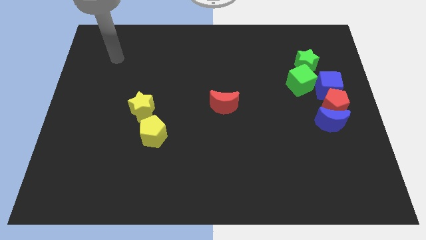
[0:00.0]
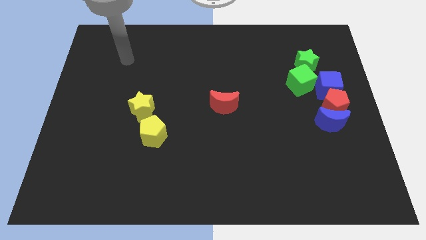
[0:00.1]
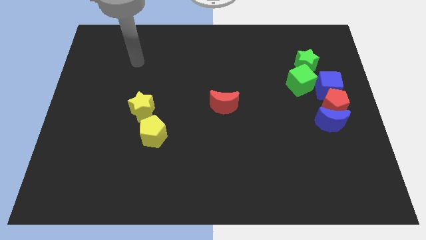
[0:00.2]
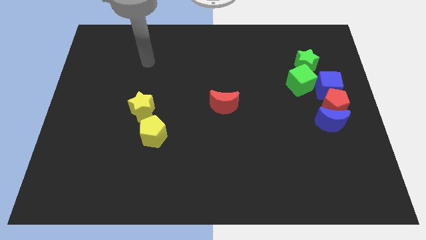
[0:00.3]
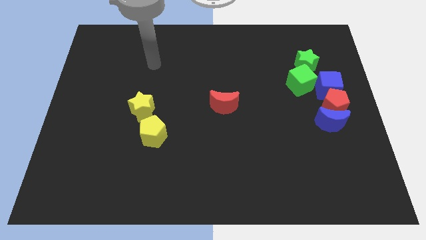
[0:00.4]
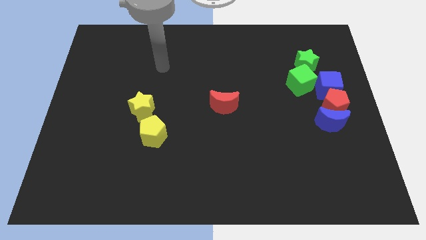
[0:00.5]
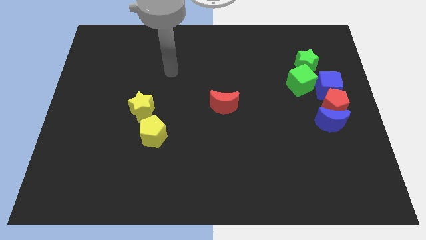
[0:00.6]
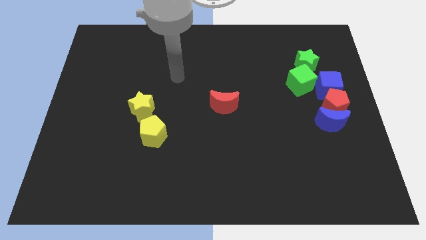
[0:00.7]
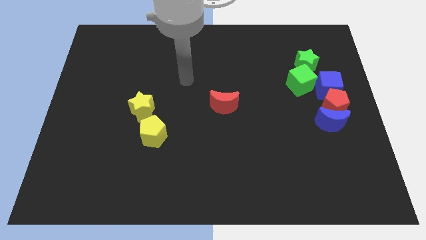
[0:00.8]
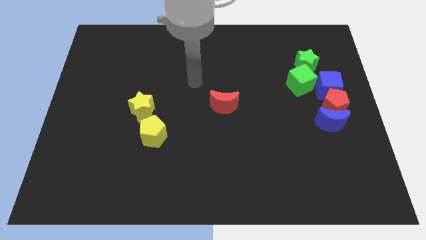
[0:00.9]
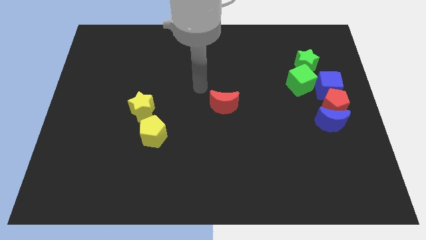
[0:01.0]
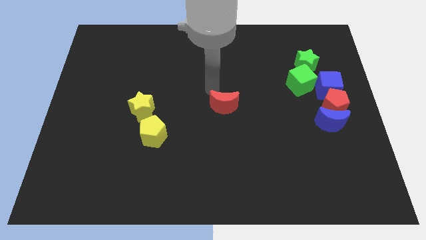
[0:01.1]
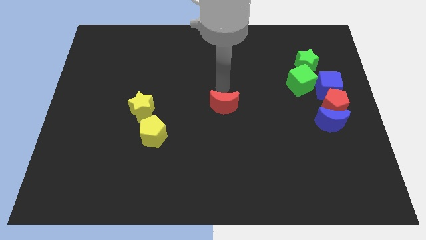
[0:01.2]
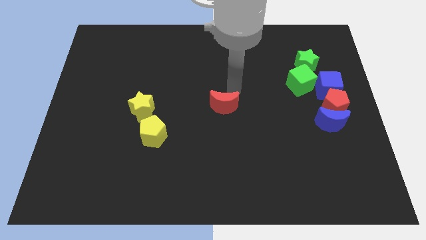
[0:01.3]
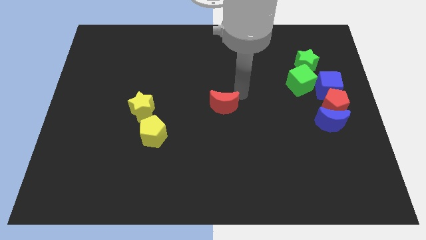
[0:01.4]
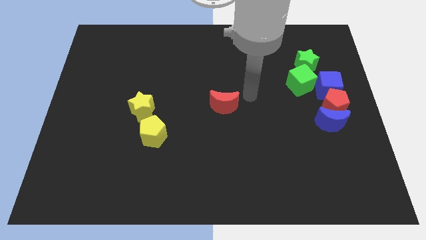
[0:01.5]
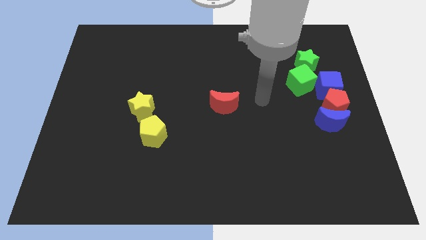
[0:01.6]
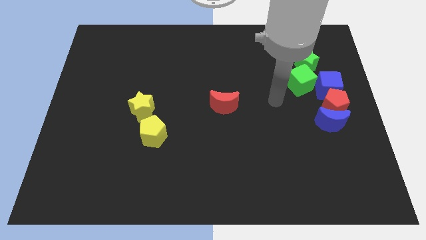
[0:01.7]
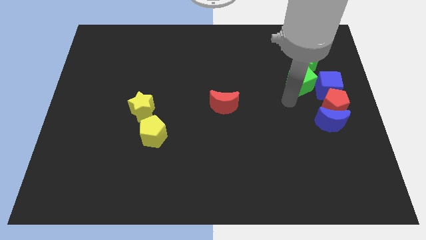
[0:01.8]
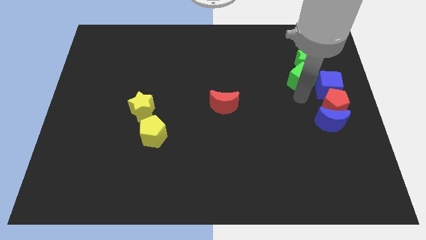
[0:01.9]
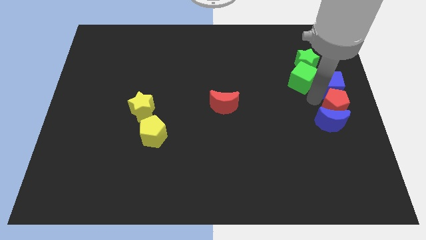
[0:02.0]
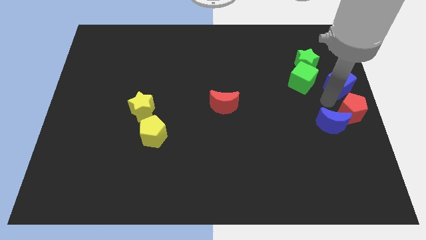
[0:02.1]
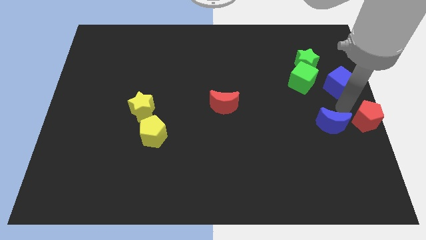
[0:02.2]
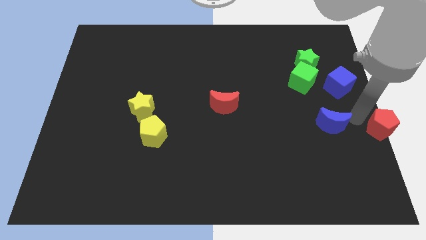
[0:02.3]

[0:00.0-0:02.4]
pull the blue moon apart from the red pentagon

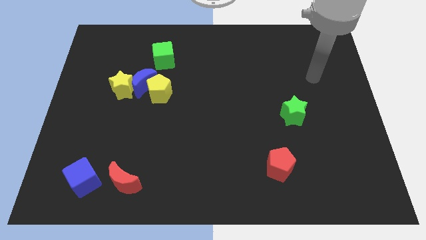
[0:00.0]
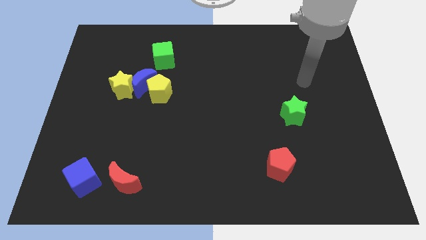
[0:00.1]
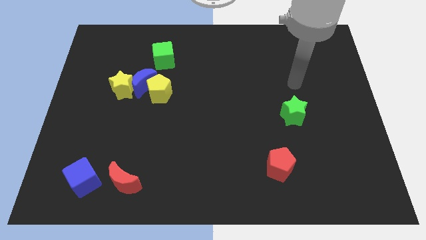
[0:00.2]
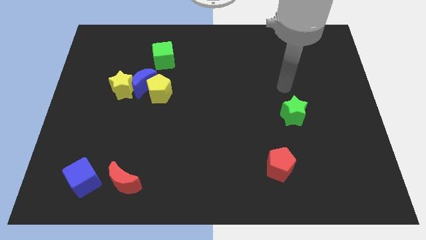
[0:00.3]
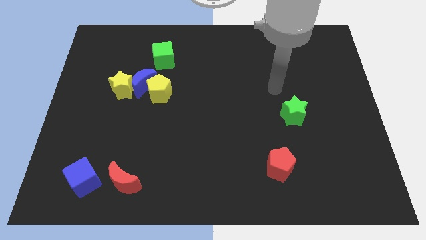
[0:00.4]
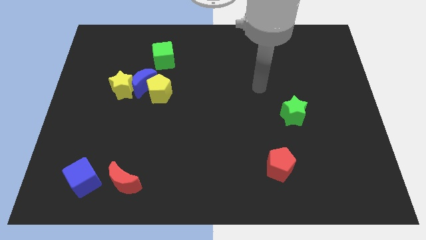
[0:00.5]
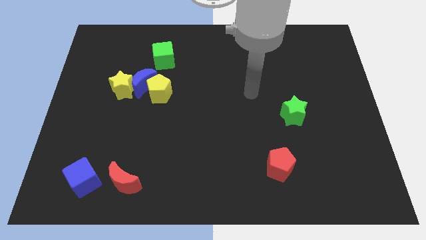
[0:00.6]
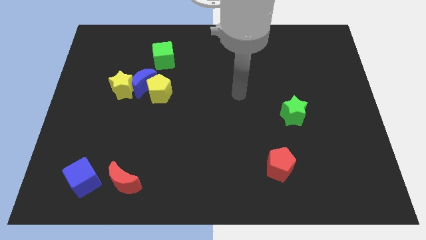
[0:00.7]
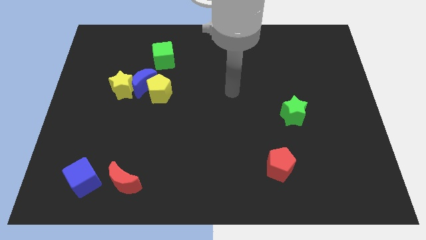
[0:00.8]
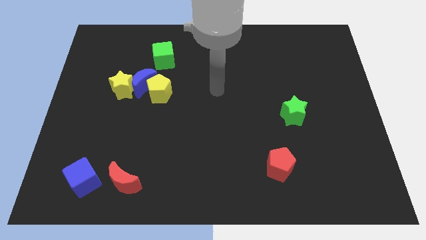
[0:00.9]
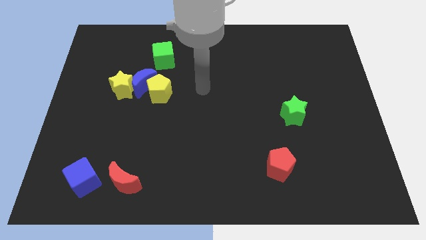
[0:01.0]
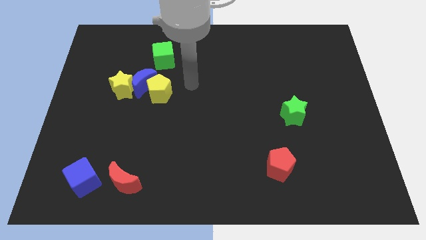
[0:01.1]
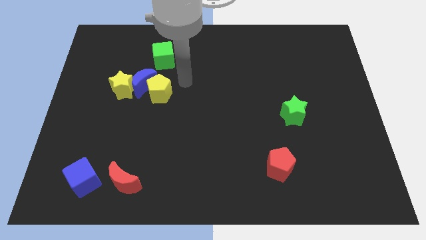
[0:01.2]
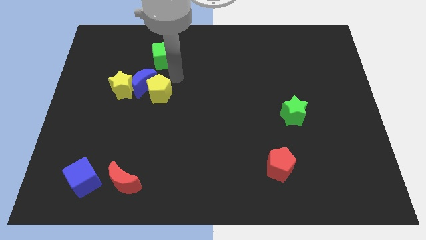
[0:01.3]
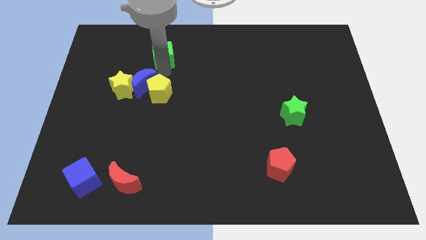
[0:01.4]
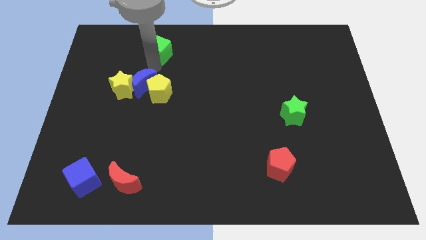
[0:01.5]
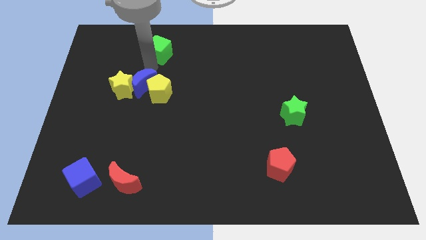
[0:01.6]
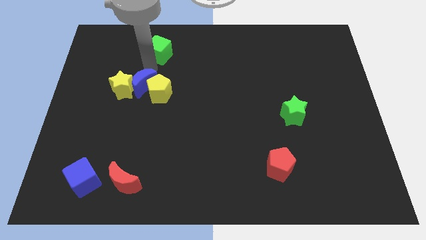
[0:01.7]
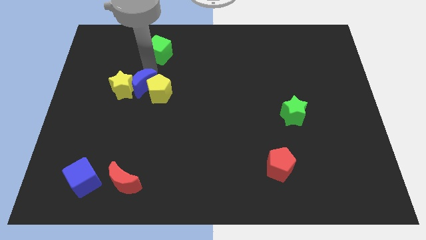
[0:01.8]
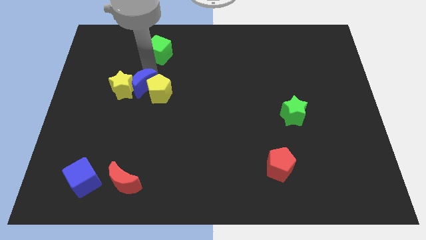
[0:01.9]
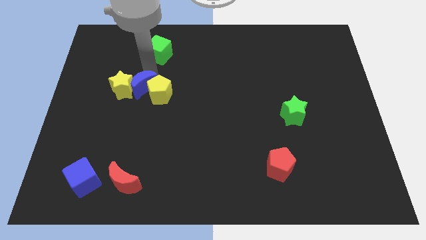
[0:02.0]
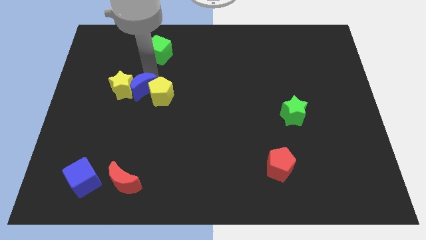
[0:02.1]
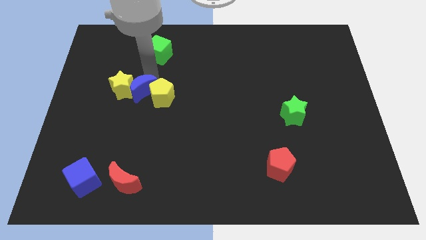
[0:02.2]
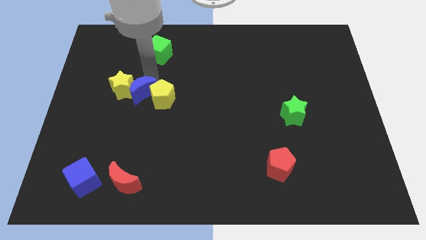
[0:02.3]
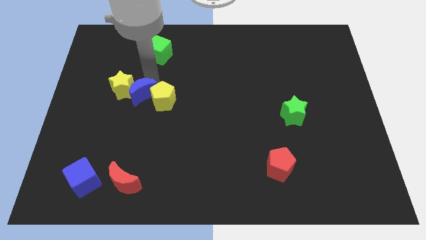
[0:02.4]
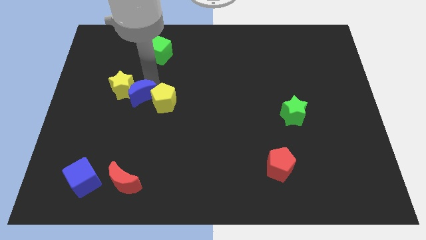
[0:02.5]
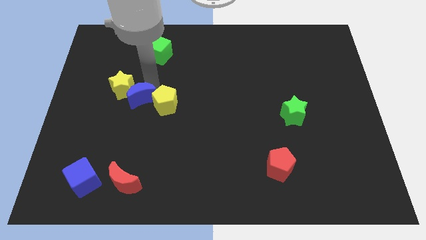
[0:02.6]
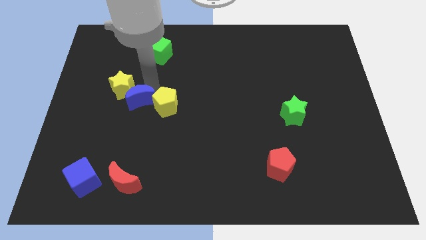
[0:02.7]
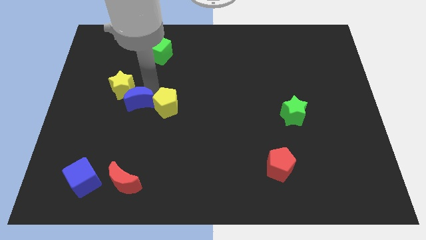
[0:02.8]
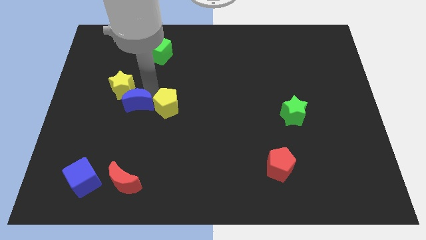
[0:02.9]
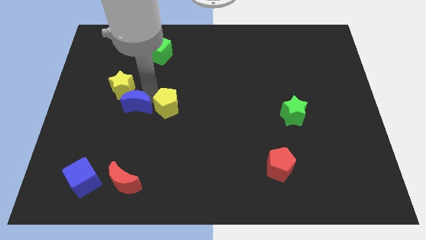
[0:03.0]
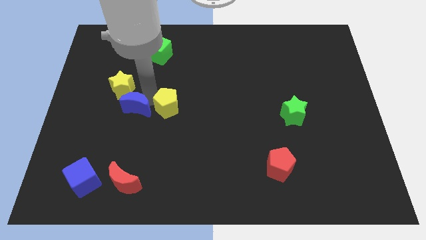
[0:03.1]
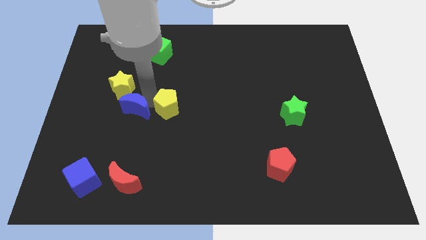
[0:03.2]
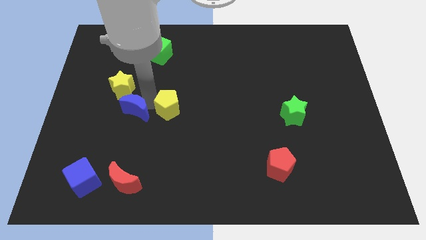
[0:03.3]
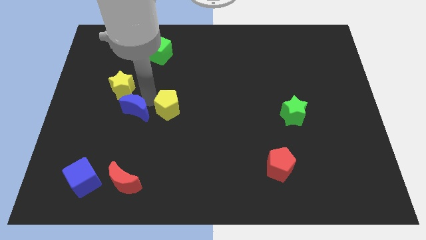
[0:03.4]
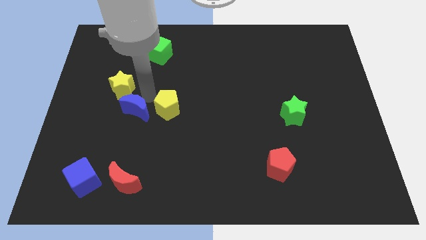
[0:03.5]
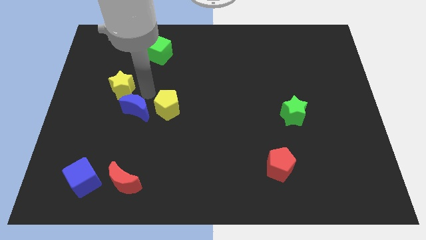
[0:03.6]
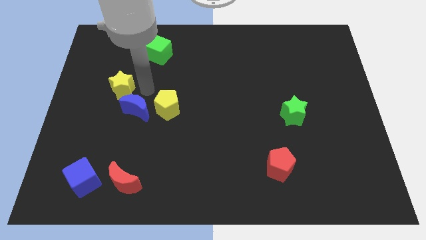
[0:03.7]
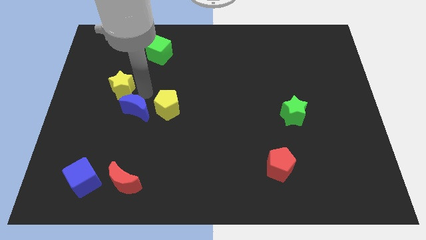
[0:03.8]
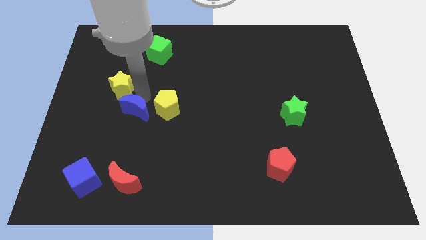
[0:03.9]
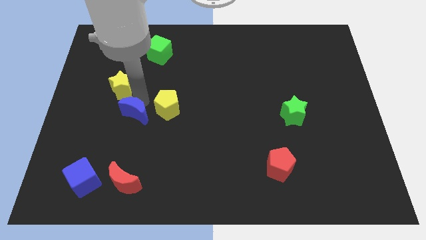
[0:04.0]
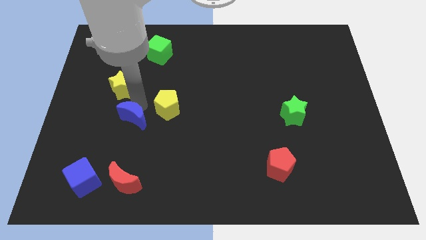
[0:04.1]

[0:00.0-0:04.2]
pull the blue moon apart from the clump

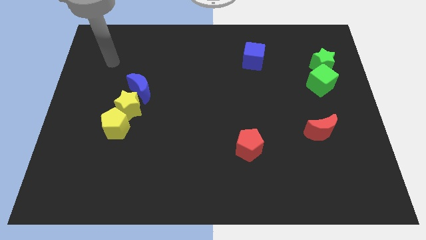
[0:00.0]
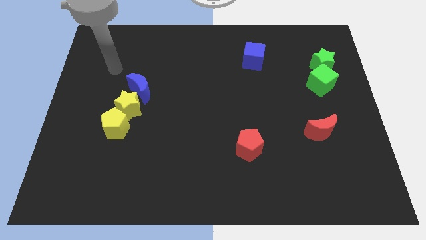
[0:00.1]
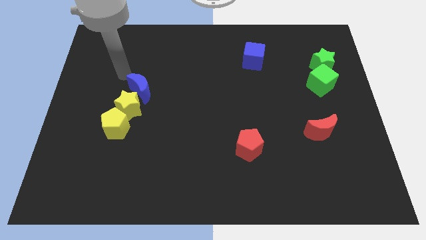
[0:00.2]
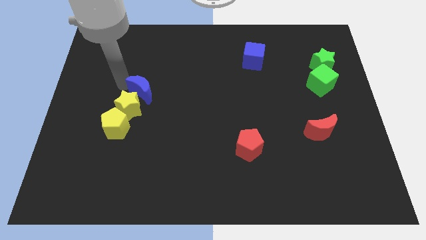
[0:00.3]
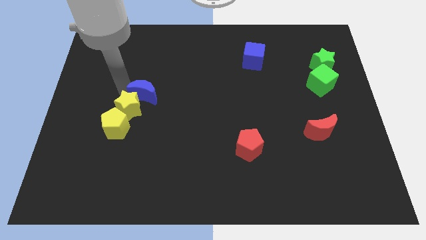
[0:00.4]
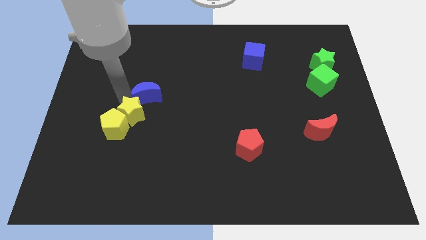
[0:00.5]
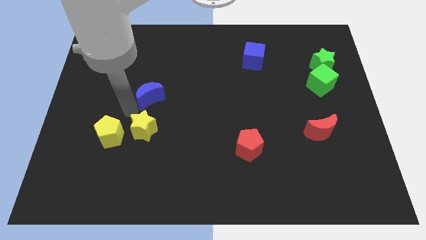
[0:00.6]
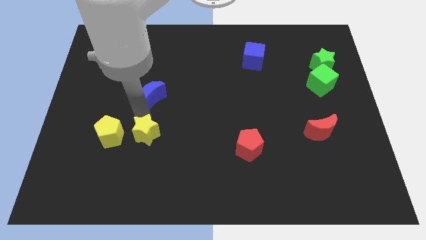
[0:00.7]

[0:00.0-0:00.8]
pull the blue moon apart from the yellow star

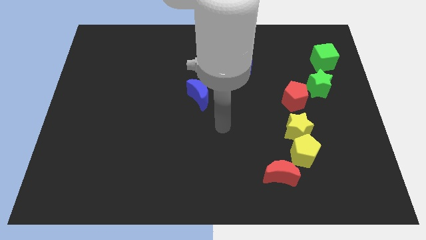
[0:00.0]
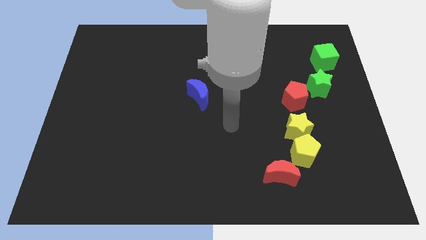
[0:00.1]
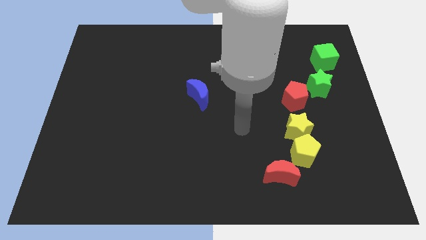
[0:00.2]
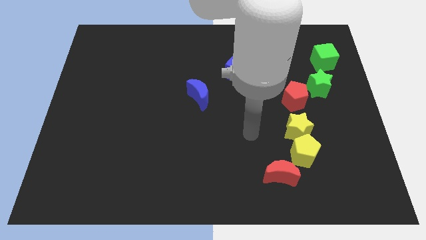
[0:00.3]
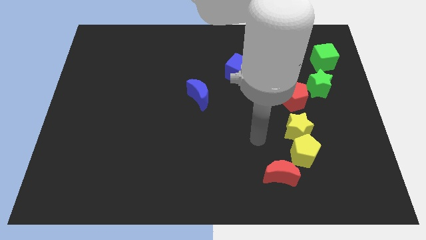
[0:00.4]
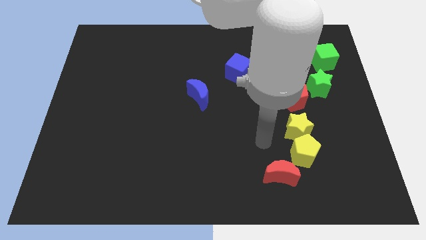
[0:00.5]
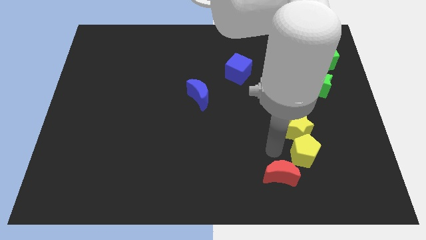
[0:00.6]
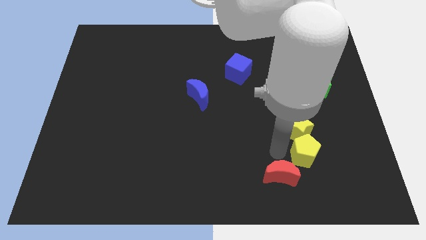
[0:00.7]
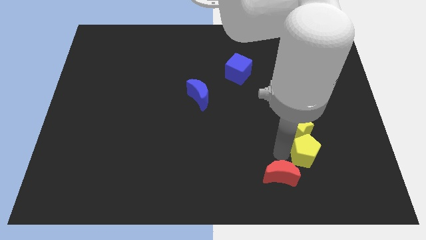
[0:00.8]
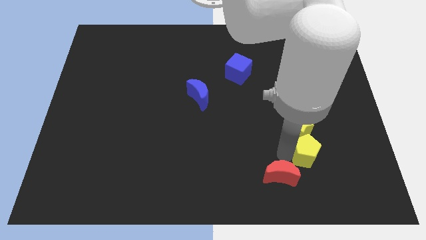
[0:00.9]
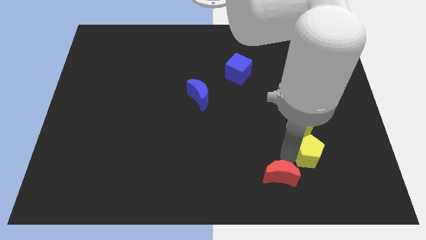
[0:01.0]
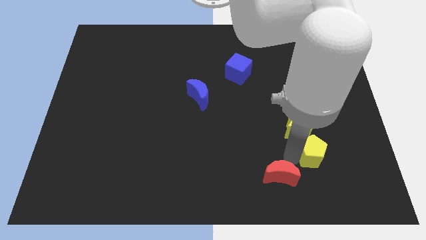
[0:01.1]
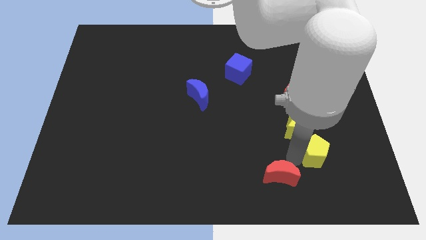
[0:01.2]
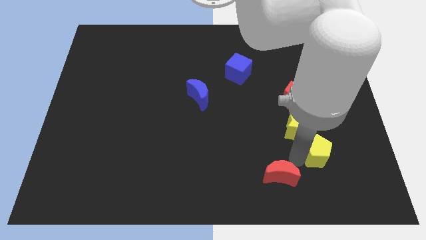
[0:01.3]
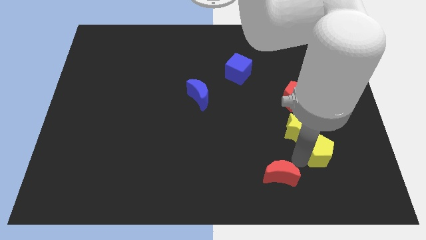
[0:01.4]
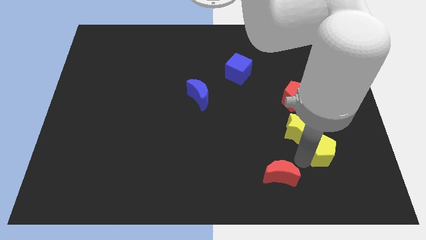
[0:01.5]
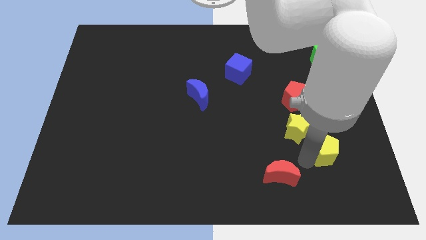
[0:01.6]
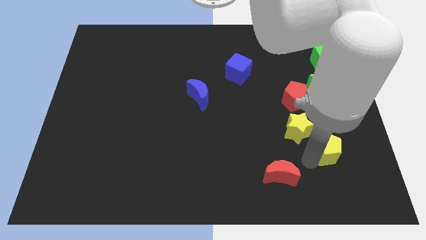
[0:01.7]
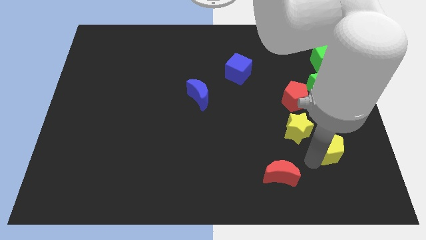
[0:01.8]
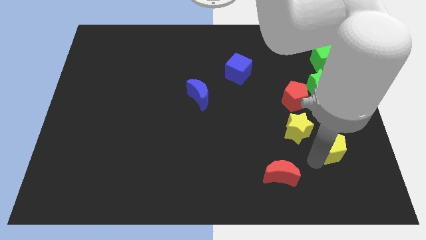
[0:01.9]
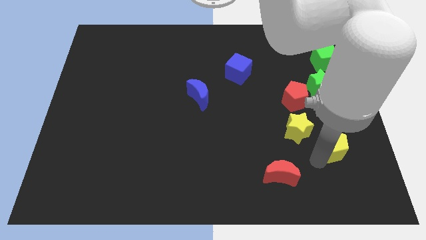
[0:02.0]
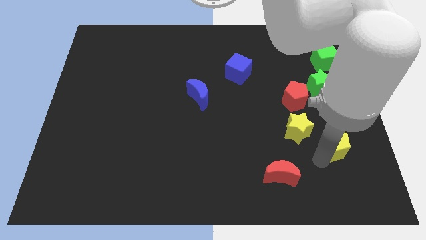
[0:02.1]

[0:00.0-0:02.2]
pull the yellow pentagon apart from the yellow star and red moon
